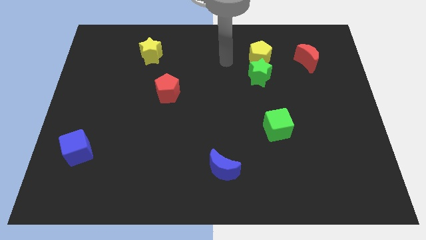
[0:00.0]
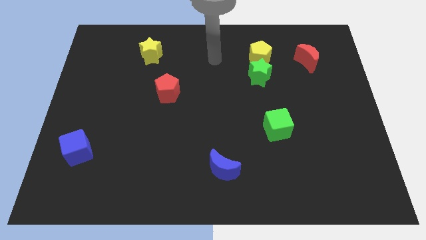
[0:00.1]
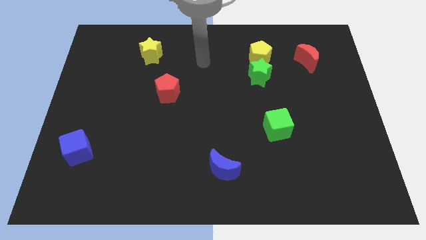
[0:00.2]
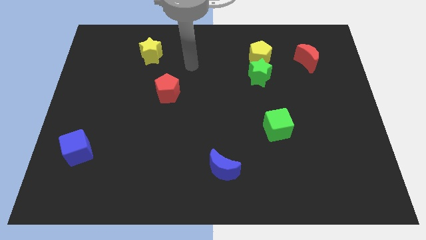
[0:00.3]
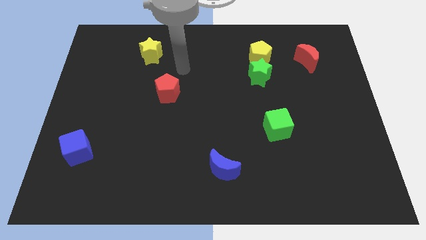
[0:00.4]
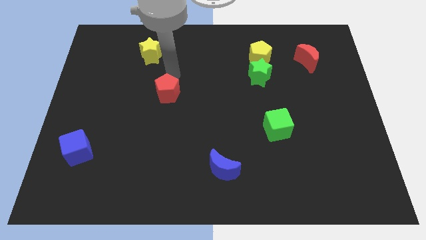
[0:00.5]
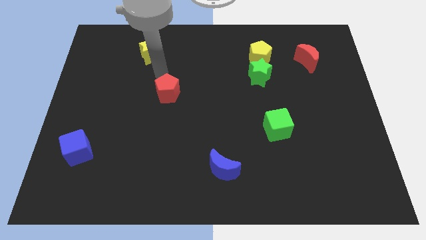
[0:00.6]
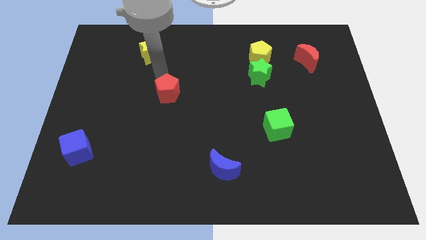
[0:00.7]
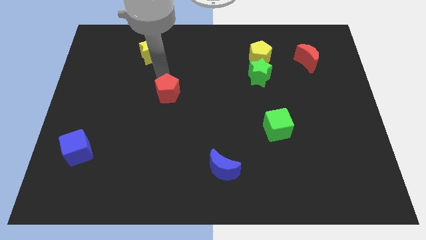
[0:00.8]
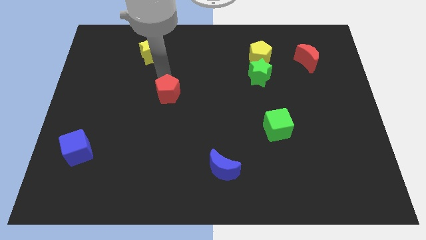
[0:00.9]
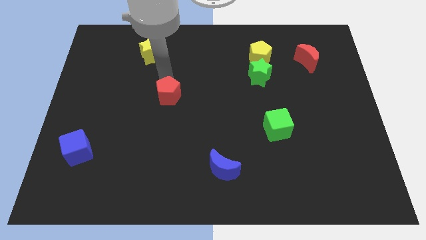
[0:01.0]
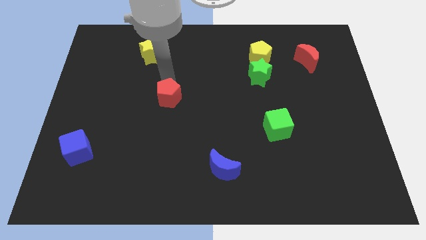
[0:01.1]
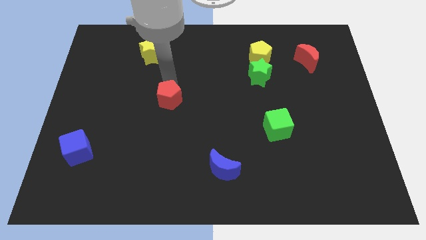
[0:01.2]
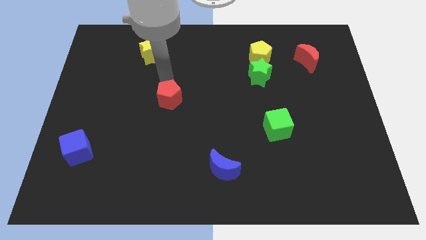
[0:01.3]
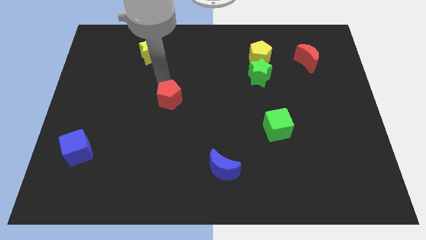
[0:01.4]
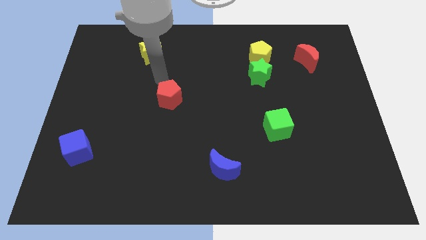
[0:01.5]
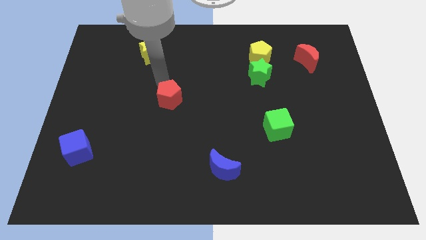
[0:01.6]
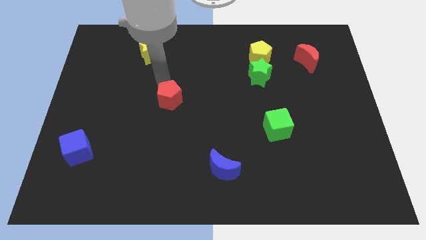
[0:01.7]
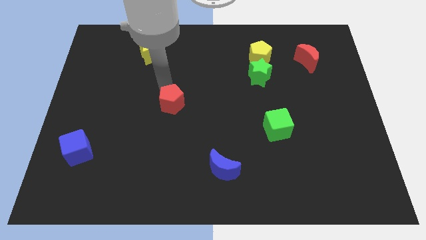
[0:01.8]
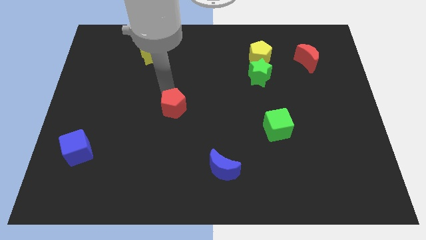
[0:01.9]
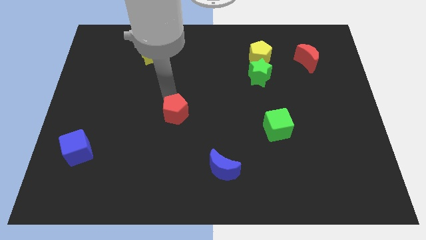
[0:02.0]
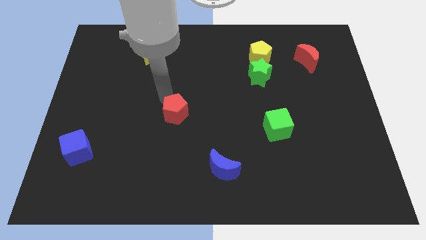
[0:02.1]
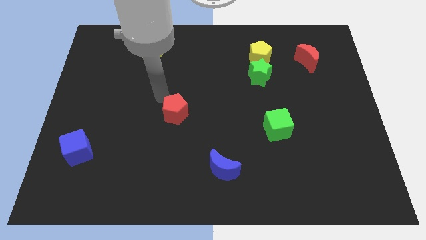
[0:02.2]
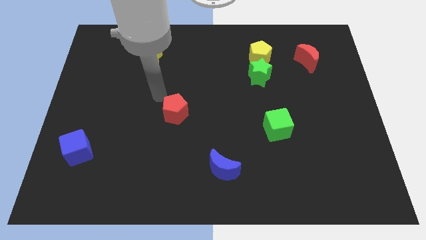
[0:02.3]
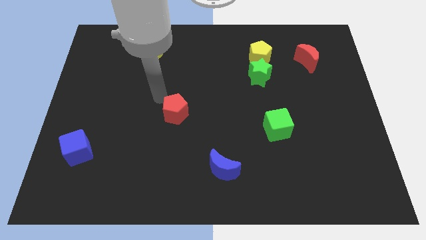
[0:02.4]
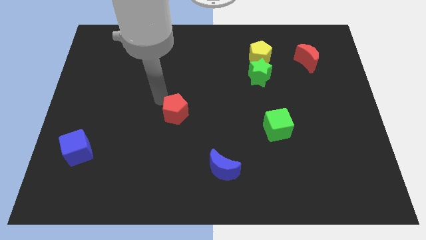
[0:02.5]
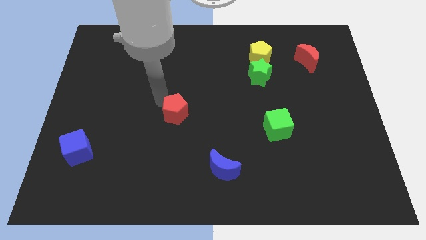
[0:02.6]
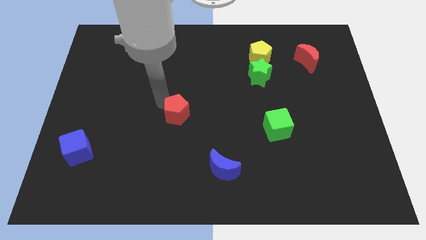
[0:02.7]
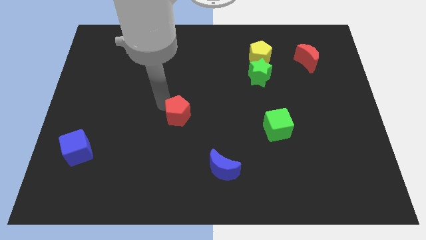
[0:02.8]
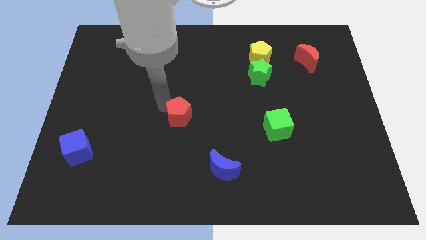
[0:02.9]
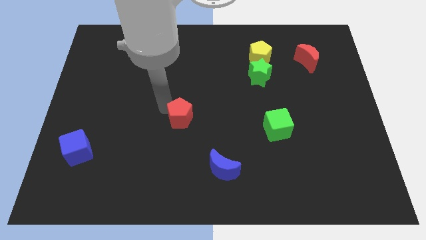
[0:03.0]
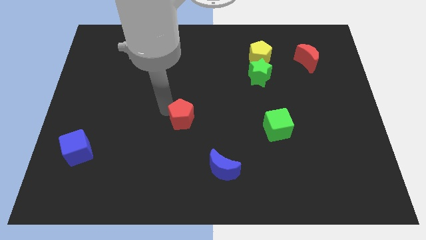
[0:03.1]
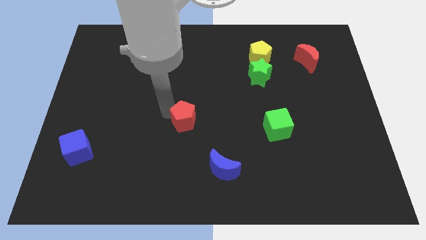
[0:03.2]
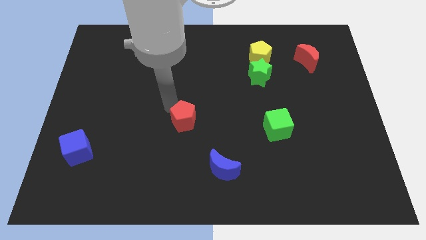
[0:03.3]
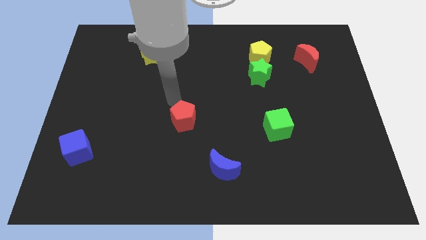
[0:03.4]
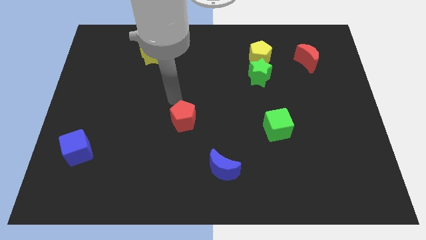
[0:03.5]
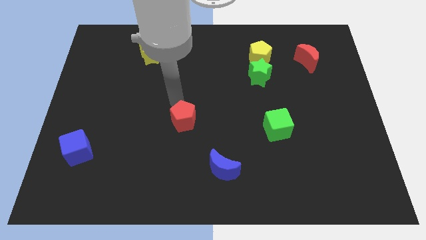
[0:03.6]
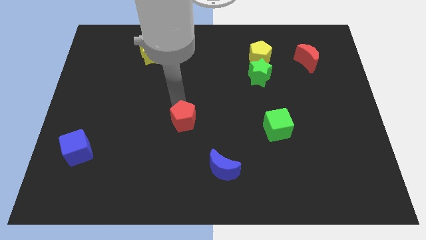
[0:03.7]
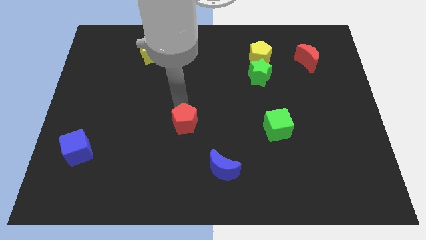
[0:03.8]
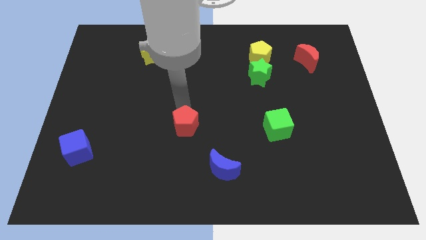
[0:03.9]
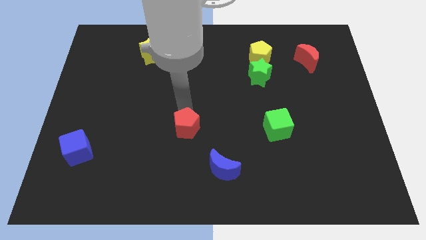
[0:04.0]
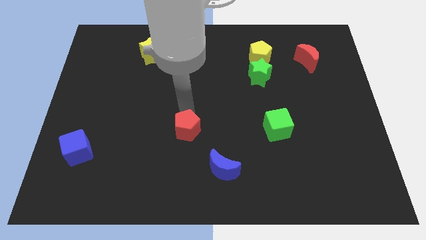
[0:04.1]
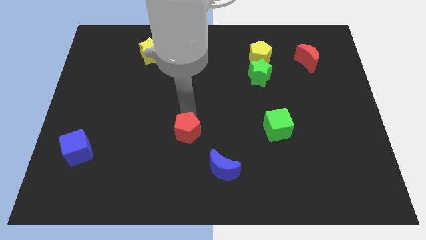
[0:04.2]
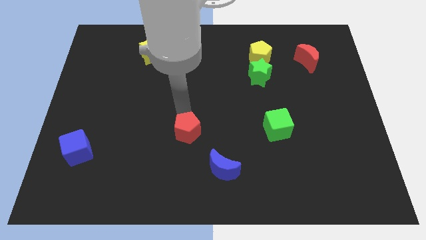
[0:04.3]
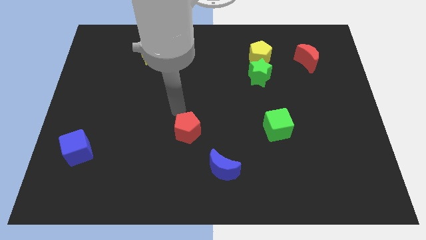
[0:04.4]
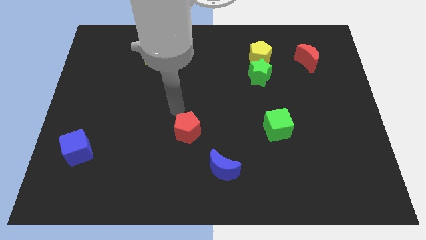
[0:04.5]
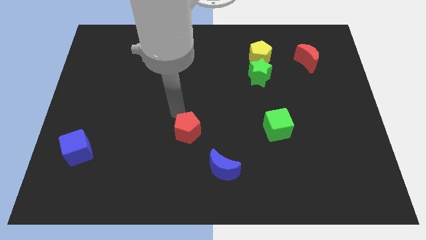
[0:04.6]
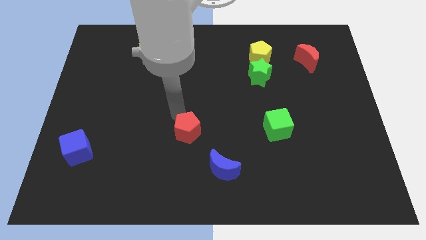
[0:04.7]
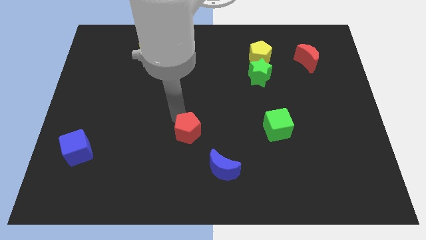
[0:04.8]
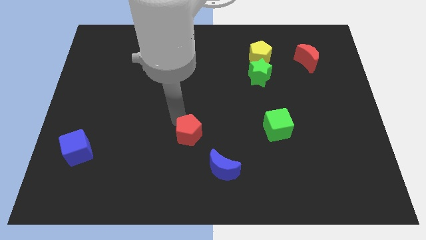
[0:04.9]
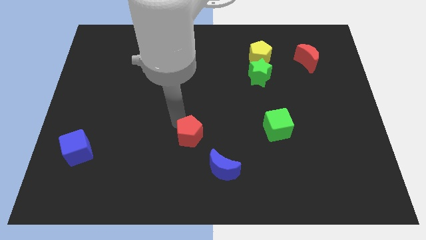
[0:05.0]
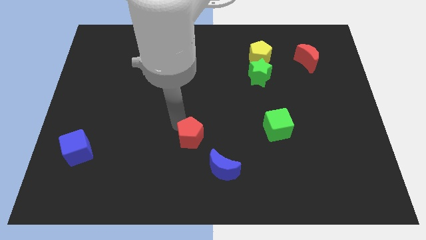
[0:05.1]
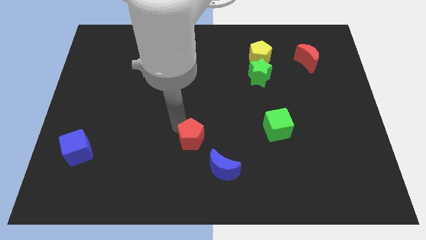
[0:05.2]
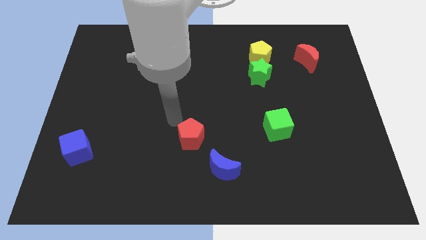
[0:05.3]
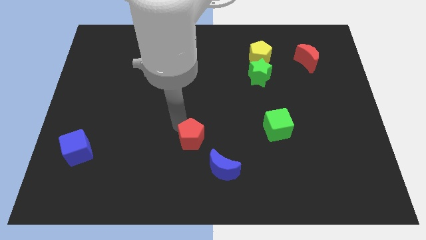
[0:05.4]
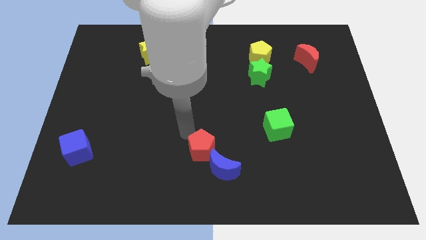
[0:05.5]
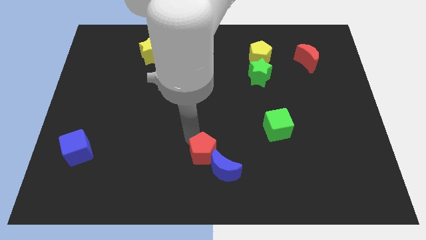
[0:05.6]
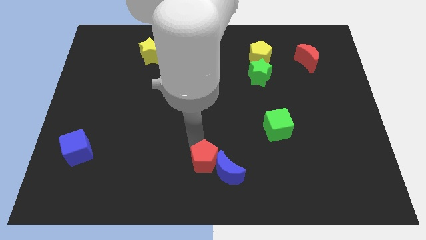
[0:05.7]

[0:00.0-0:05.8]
move the red pentagon next to the blue moon

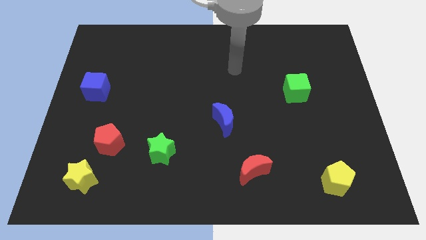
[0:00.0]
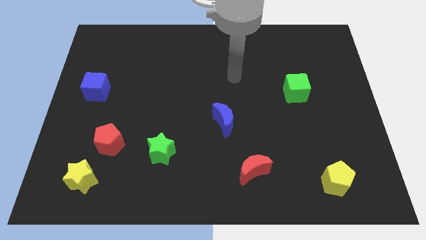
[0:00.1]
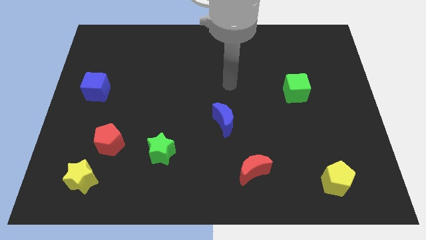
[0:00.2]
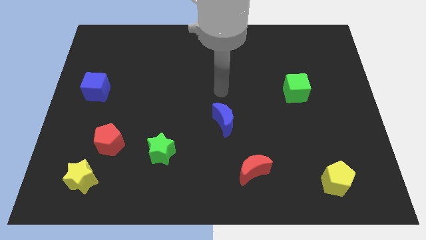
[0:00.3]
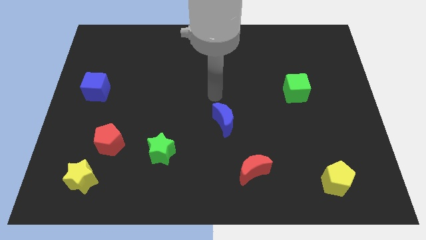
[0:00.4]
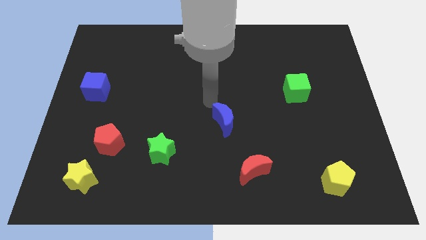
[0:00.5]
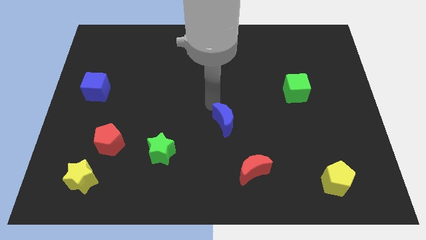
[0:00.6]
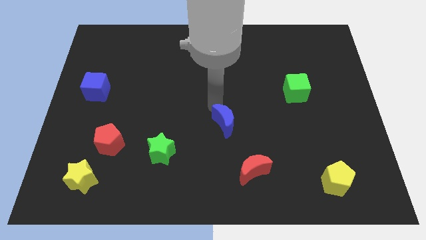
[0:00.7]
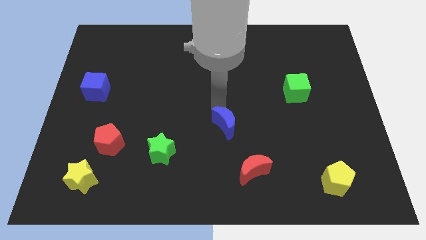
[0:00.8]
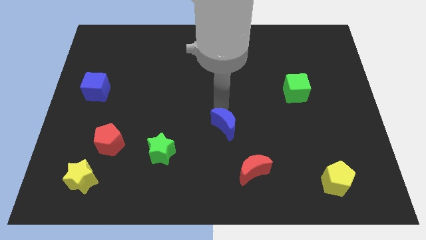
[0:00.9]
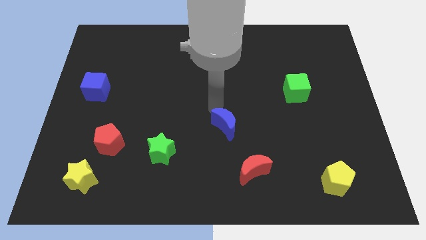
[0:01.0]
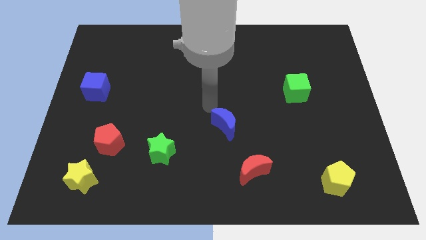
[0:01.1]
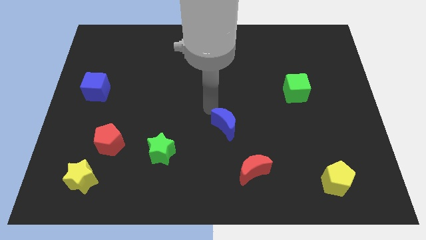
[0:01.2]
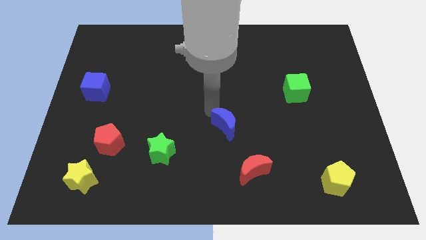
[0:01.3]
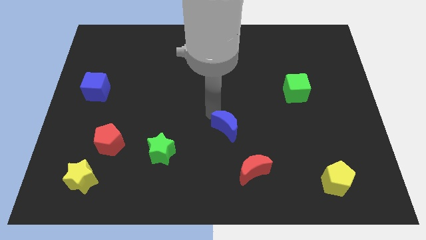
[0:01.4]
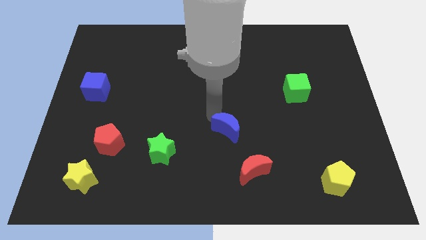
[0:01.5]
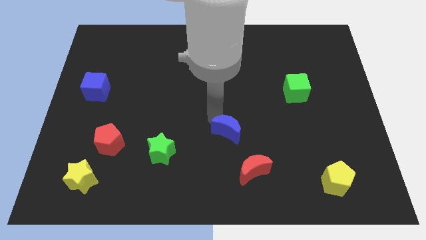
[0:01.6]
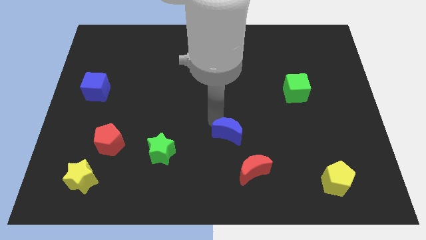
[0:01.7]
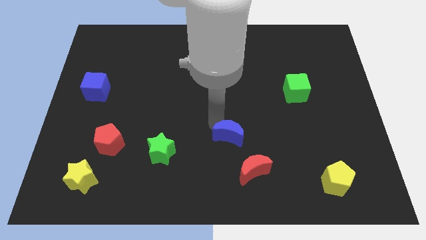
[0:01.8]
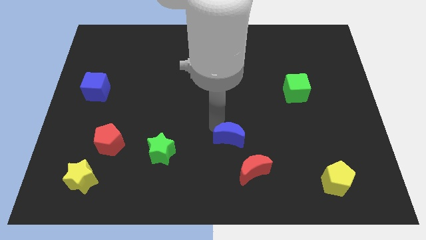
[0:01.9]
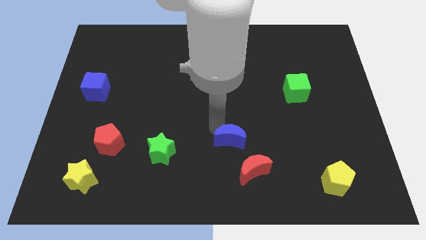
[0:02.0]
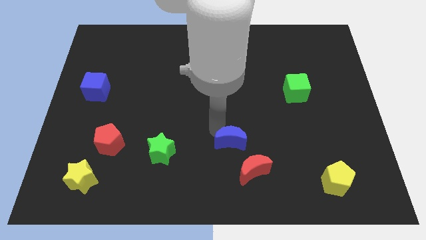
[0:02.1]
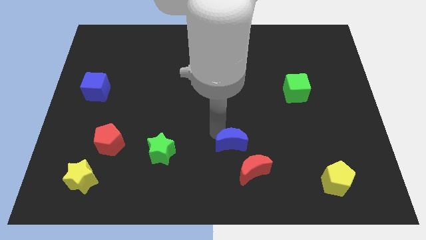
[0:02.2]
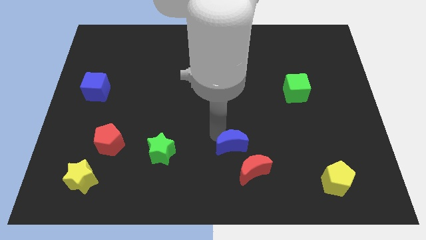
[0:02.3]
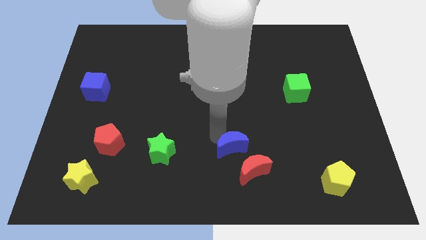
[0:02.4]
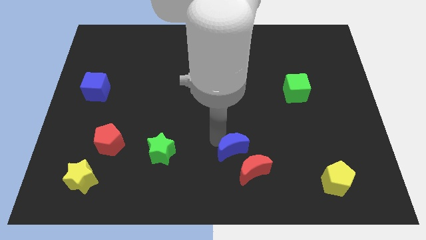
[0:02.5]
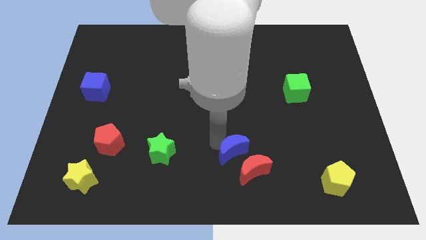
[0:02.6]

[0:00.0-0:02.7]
push the blue moon close to the red moon
